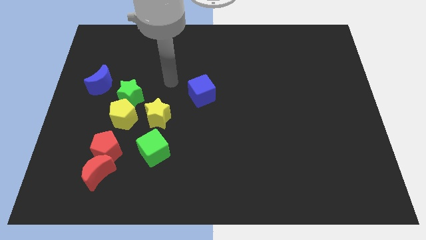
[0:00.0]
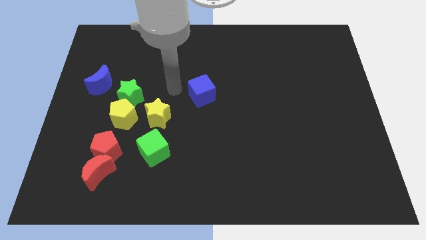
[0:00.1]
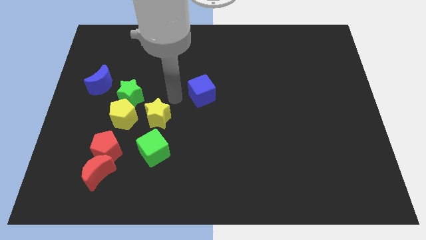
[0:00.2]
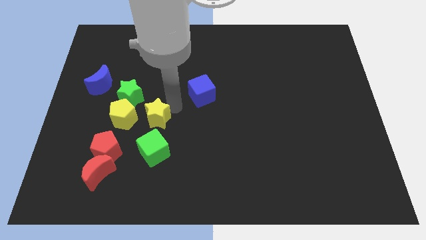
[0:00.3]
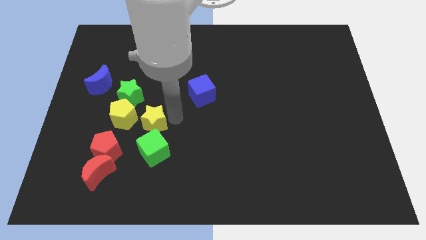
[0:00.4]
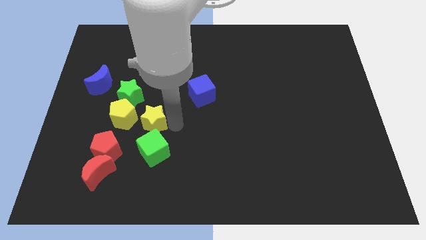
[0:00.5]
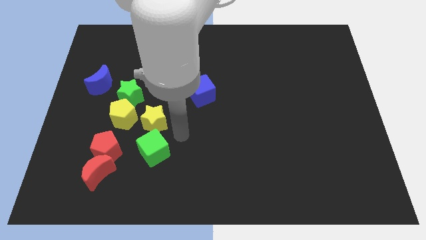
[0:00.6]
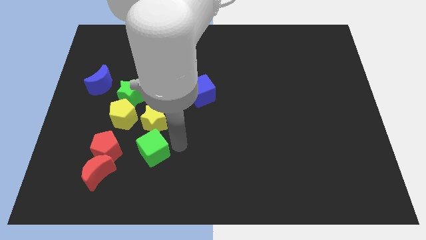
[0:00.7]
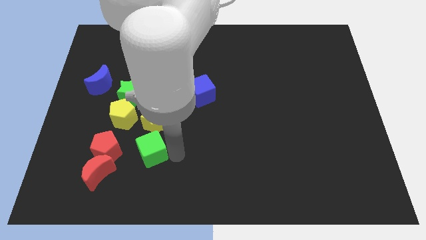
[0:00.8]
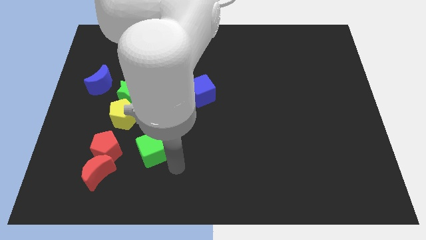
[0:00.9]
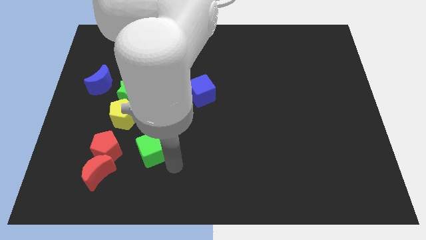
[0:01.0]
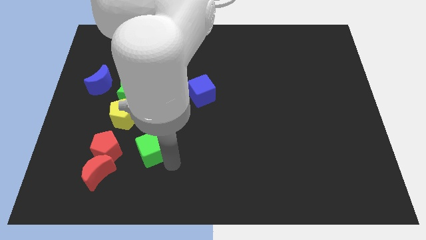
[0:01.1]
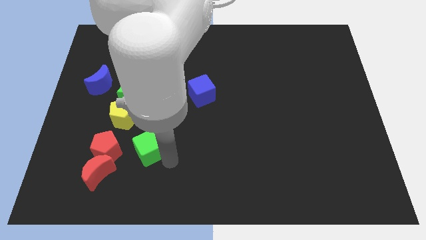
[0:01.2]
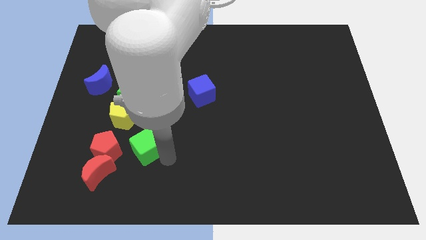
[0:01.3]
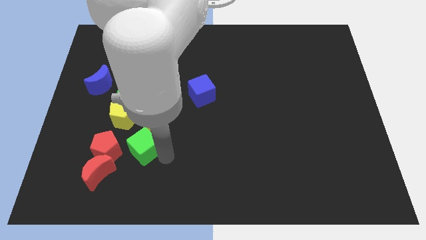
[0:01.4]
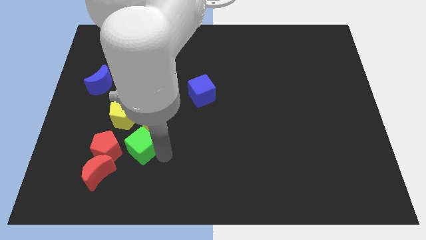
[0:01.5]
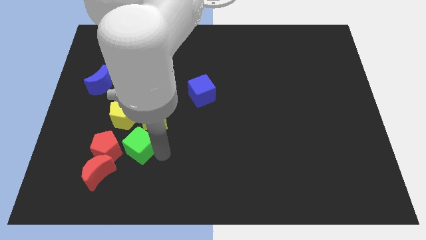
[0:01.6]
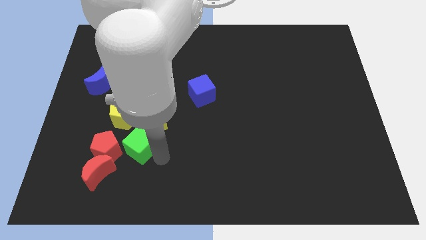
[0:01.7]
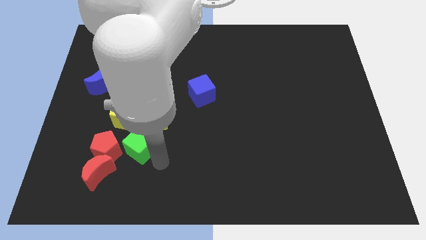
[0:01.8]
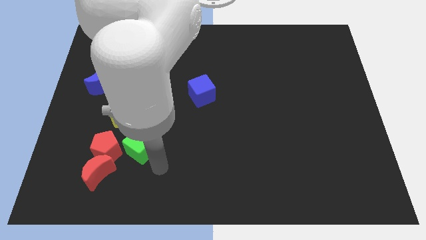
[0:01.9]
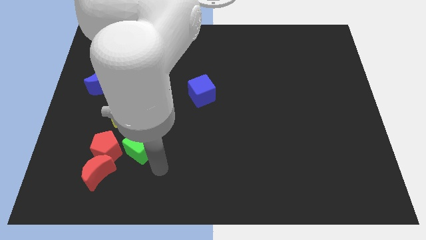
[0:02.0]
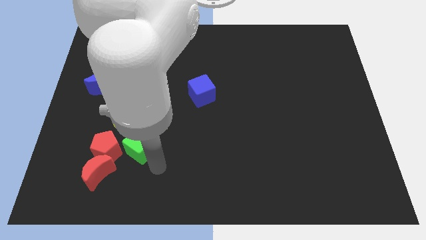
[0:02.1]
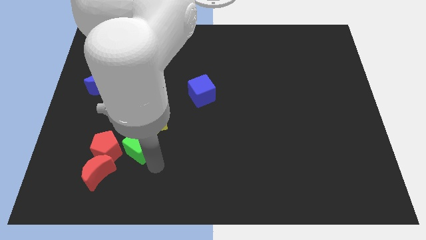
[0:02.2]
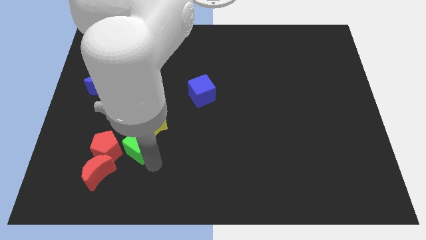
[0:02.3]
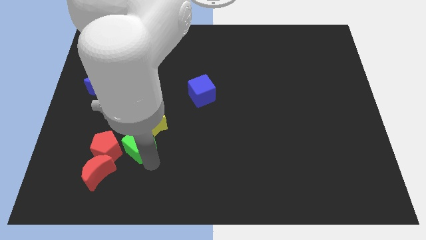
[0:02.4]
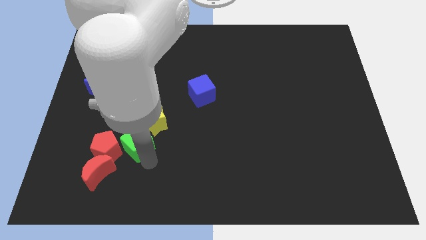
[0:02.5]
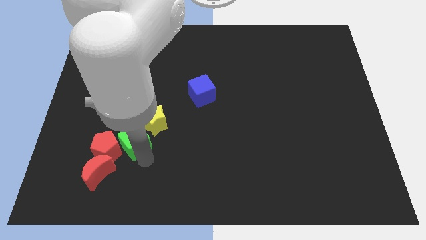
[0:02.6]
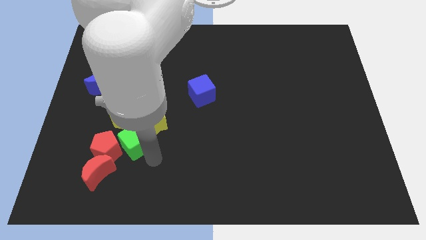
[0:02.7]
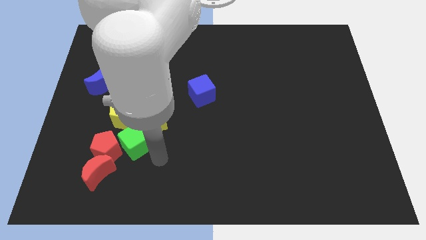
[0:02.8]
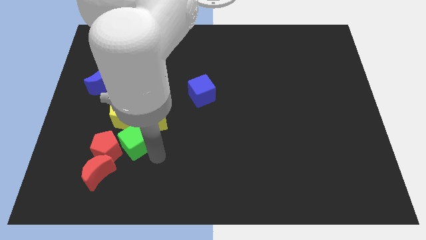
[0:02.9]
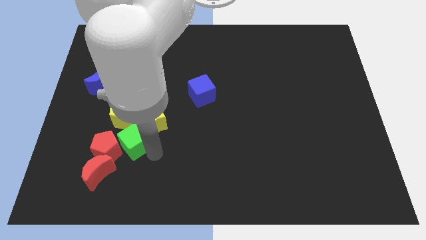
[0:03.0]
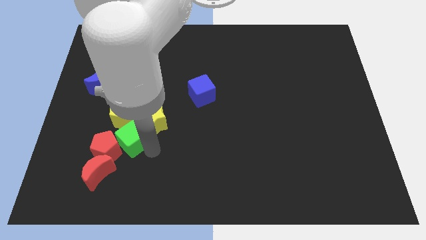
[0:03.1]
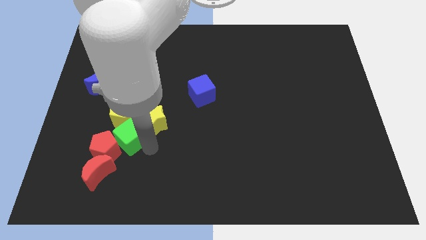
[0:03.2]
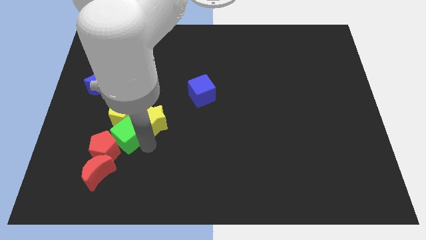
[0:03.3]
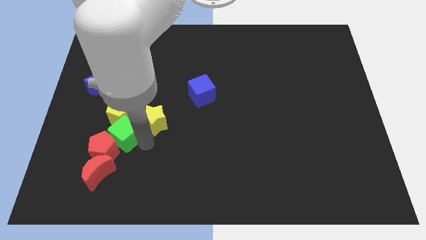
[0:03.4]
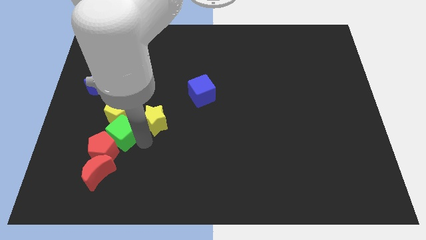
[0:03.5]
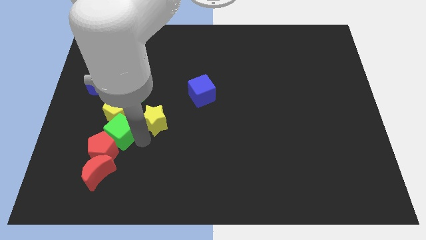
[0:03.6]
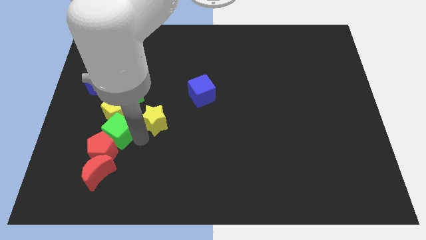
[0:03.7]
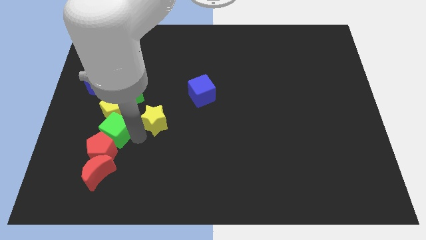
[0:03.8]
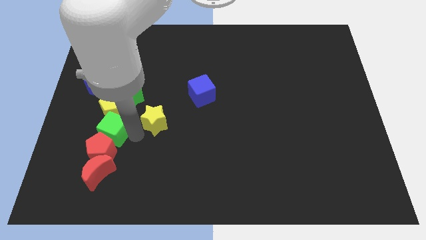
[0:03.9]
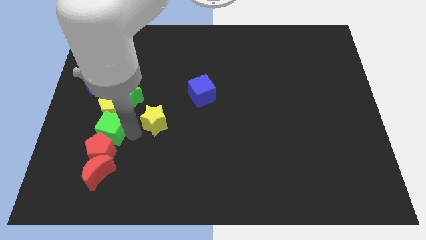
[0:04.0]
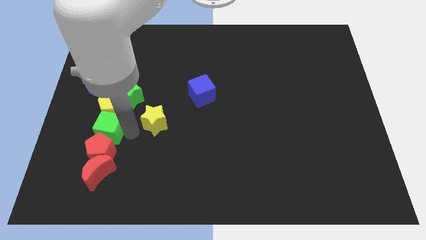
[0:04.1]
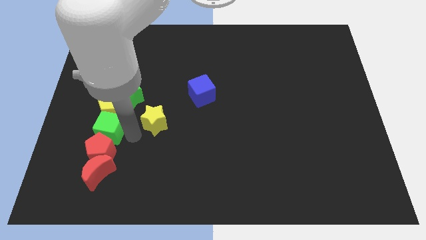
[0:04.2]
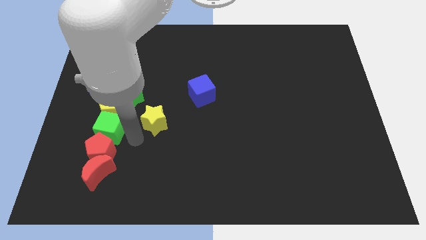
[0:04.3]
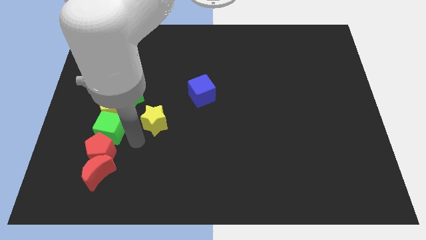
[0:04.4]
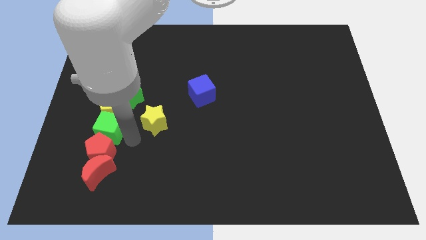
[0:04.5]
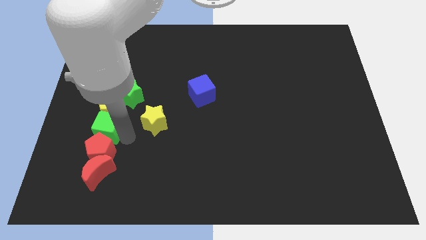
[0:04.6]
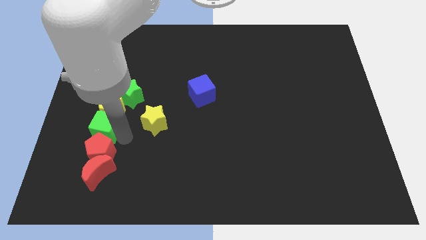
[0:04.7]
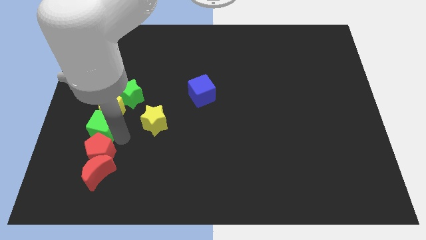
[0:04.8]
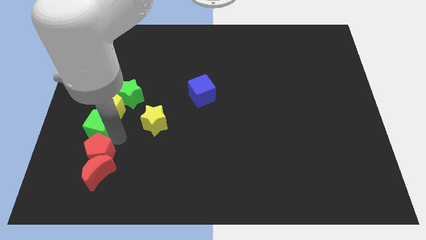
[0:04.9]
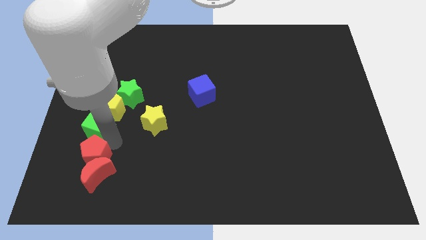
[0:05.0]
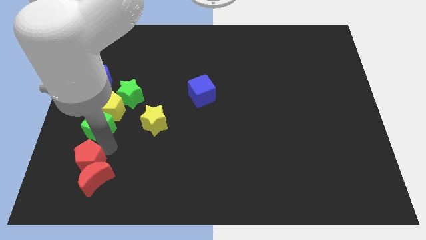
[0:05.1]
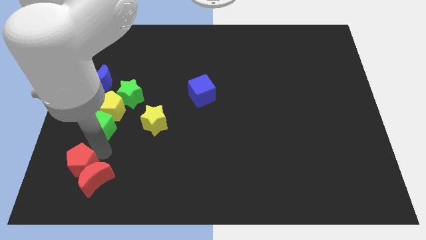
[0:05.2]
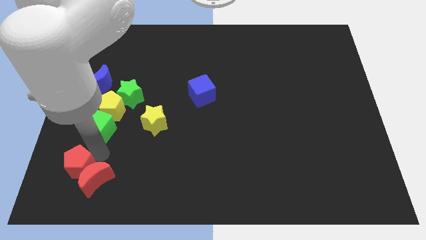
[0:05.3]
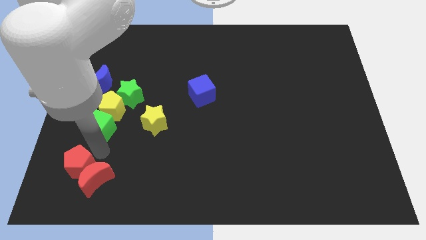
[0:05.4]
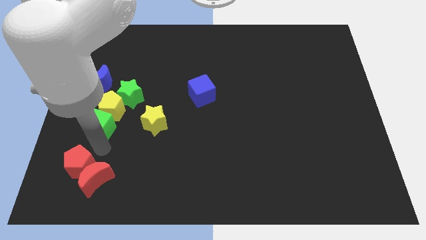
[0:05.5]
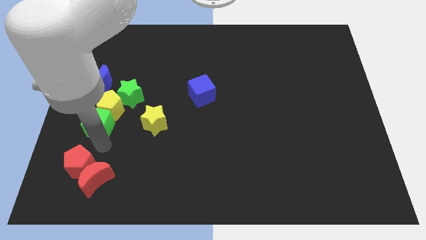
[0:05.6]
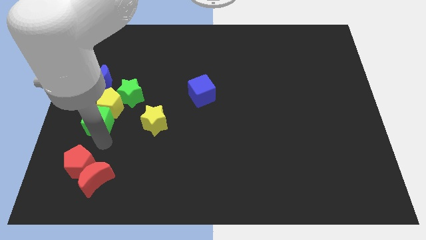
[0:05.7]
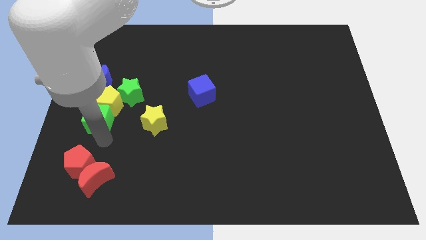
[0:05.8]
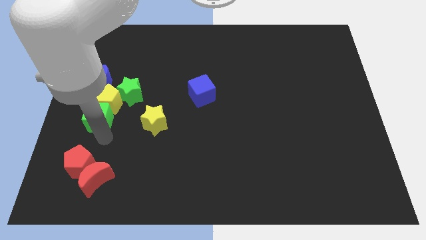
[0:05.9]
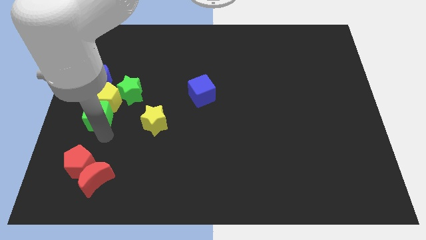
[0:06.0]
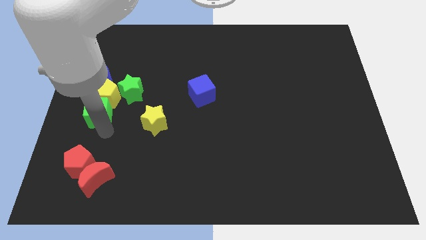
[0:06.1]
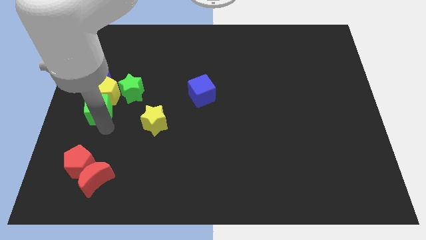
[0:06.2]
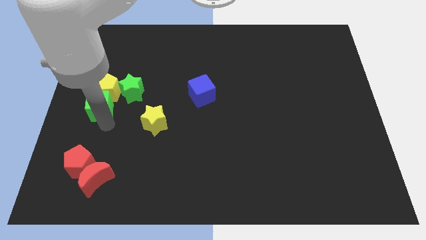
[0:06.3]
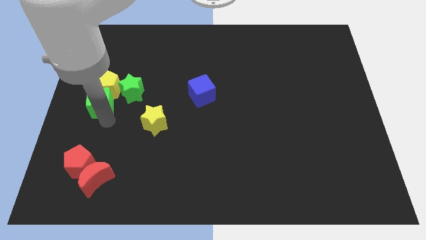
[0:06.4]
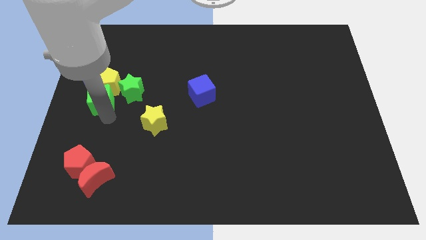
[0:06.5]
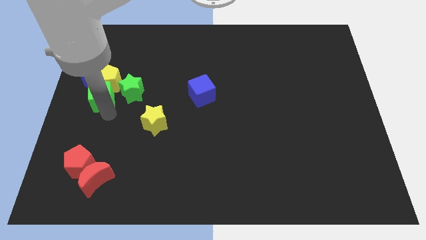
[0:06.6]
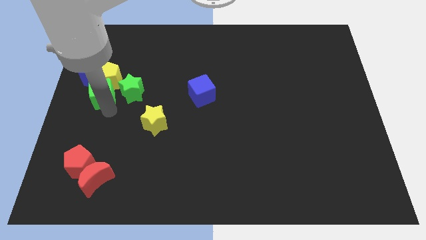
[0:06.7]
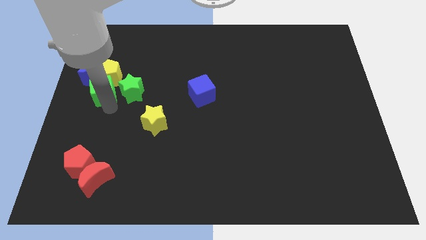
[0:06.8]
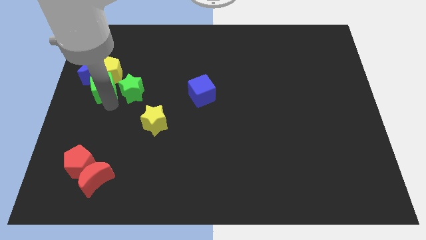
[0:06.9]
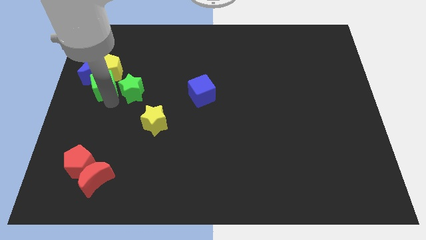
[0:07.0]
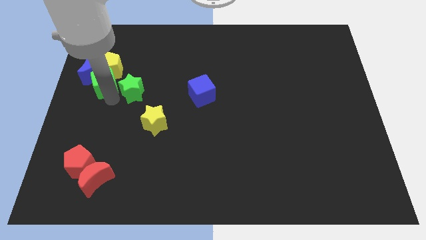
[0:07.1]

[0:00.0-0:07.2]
slide the green cube close to the blue moon

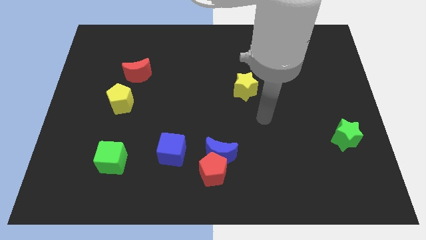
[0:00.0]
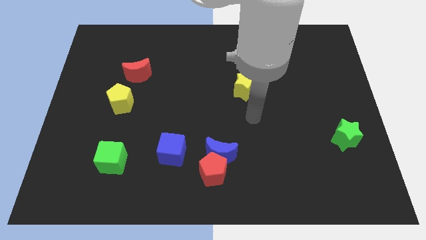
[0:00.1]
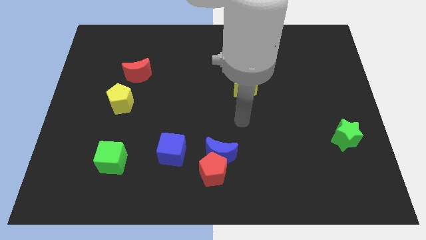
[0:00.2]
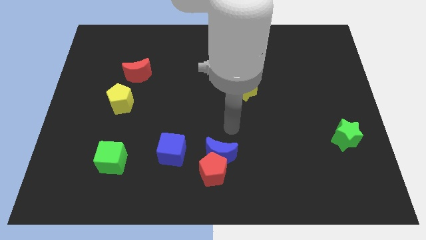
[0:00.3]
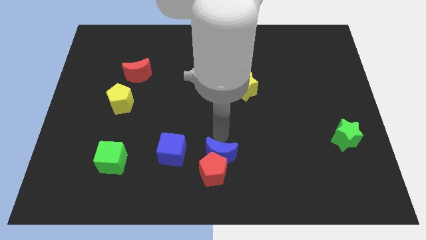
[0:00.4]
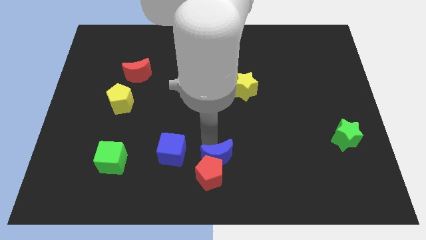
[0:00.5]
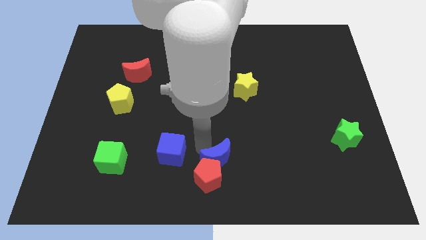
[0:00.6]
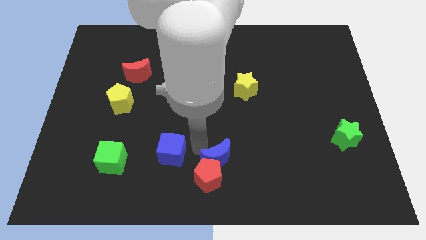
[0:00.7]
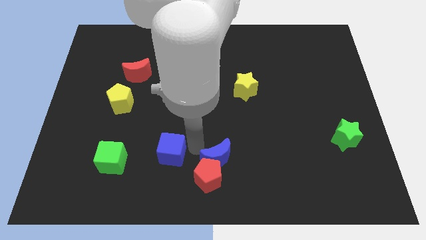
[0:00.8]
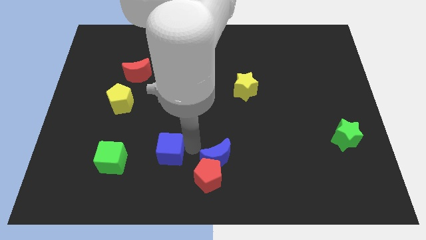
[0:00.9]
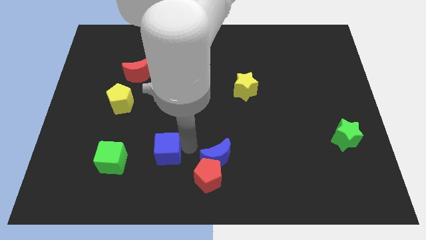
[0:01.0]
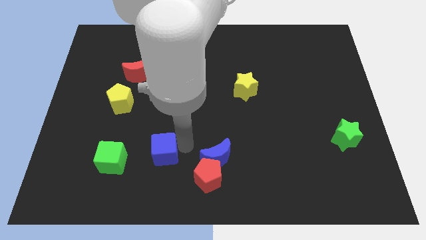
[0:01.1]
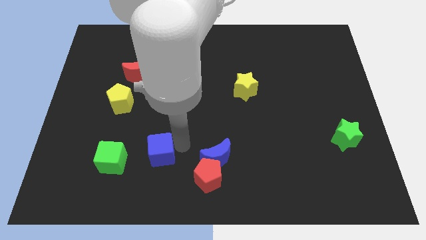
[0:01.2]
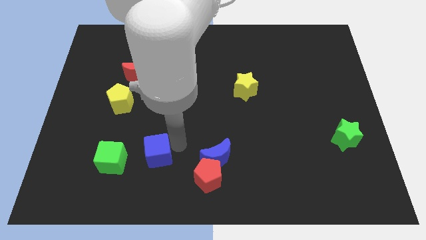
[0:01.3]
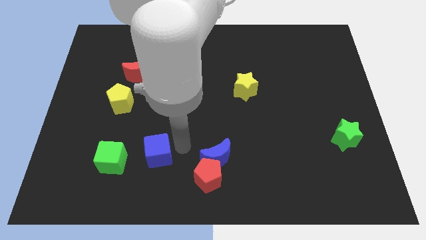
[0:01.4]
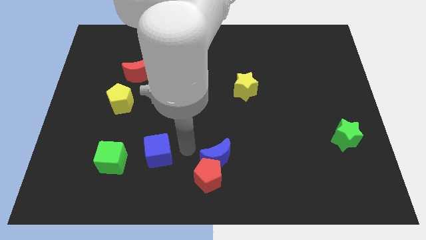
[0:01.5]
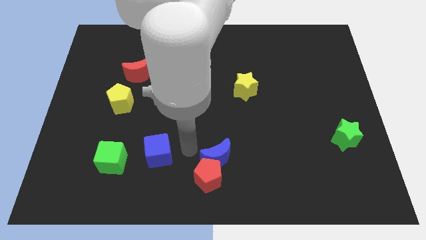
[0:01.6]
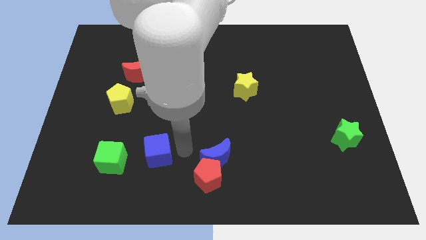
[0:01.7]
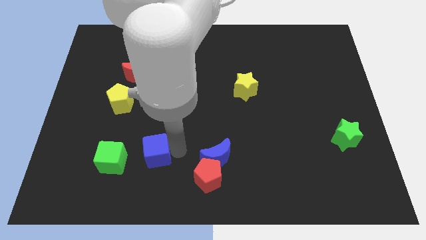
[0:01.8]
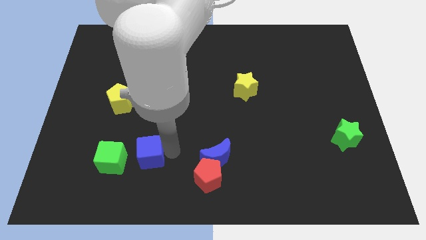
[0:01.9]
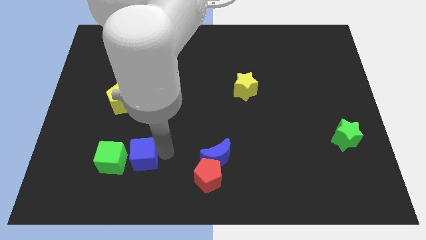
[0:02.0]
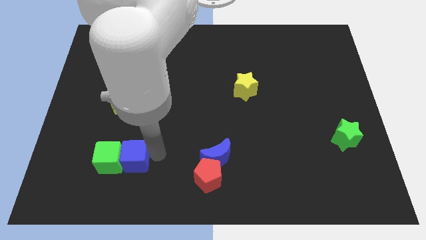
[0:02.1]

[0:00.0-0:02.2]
push the blue cube close to the green cube
